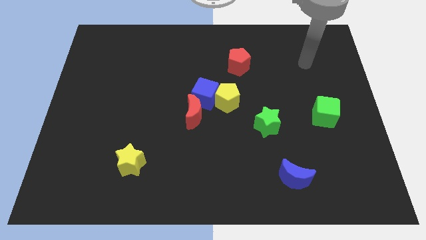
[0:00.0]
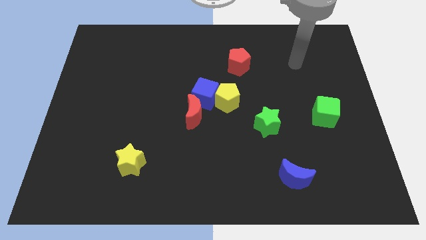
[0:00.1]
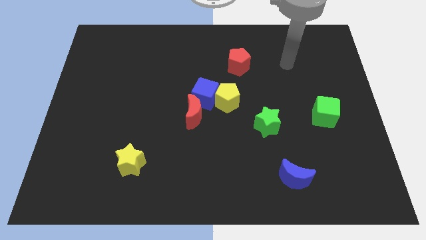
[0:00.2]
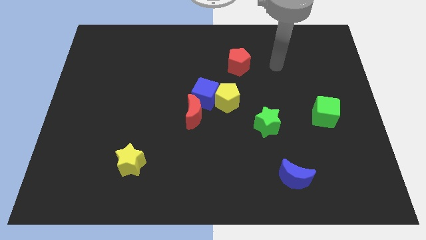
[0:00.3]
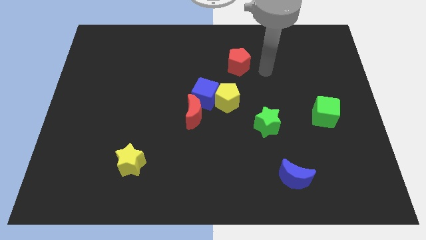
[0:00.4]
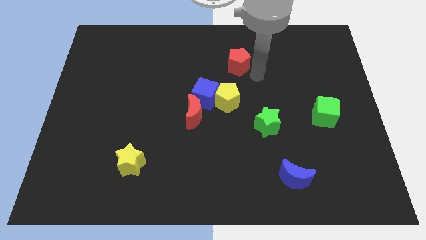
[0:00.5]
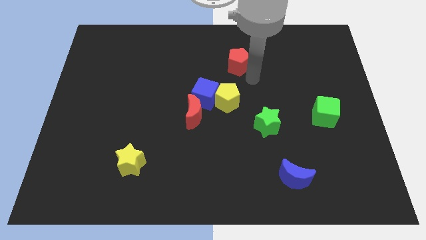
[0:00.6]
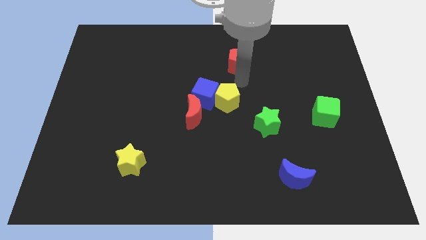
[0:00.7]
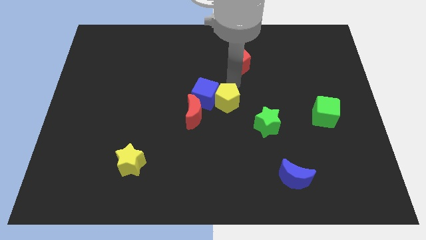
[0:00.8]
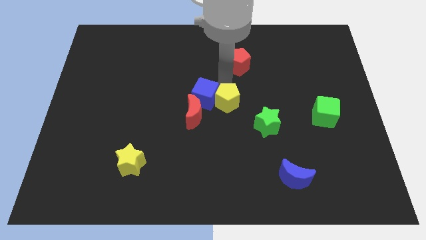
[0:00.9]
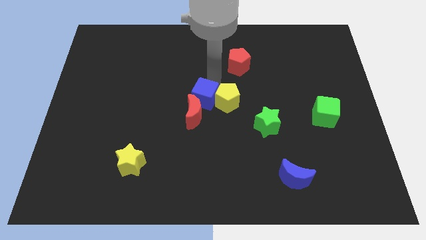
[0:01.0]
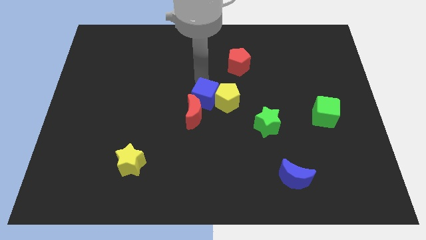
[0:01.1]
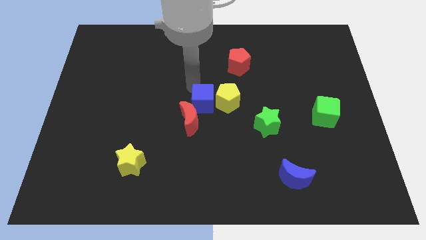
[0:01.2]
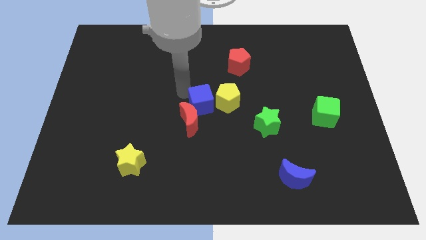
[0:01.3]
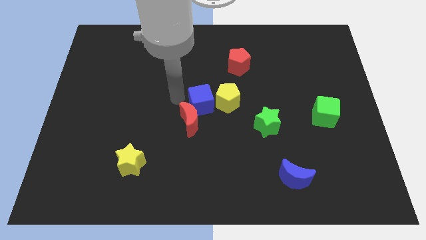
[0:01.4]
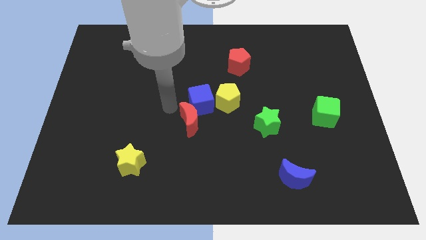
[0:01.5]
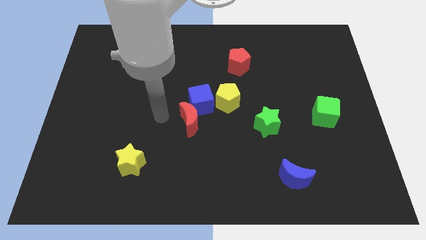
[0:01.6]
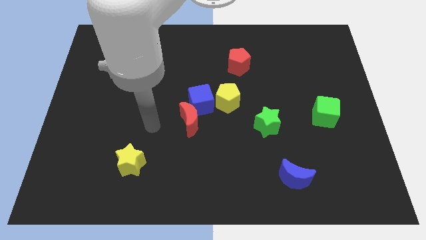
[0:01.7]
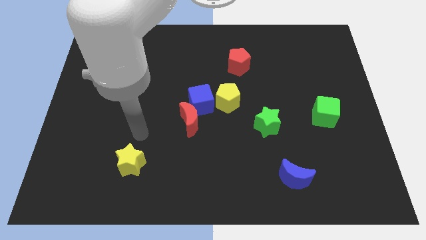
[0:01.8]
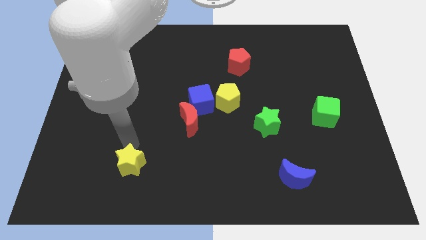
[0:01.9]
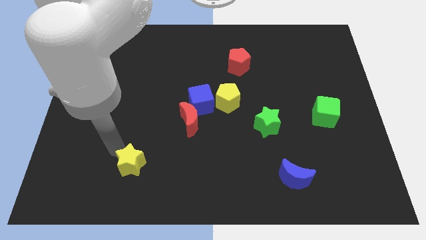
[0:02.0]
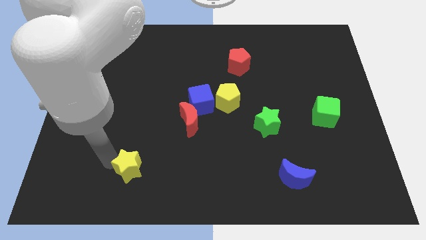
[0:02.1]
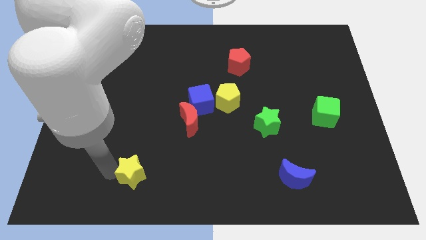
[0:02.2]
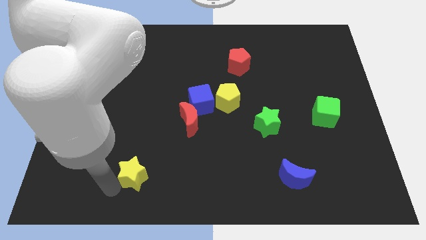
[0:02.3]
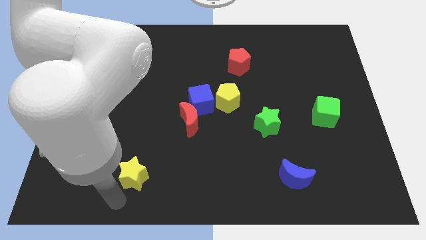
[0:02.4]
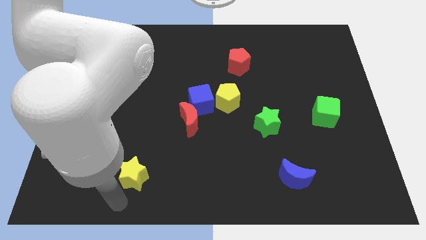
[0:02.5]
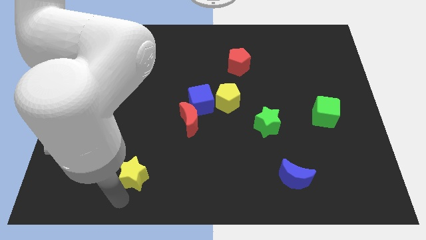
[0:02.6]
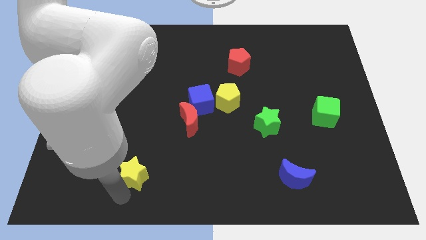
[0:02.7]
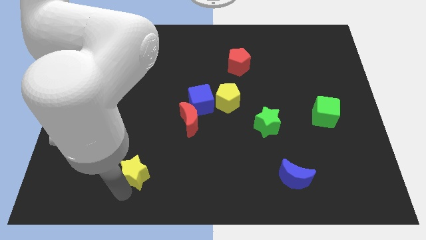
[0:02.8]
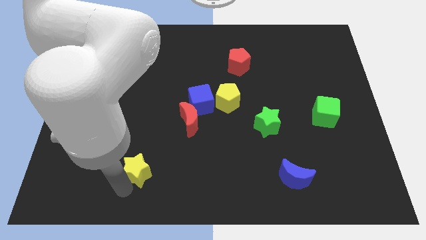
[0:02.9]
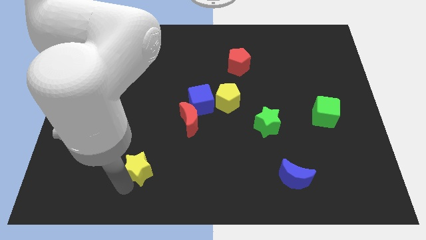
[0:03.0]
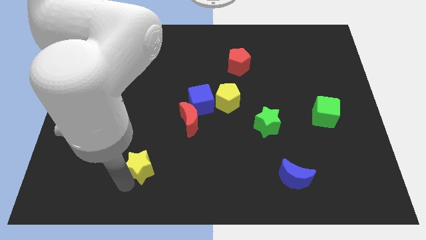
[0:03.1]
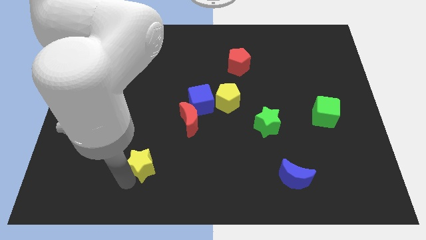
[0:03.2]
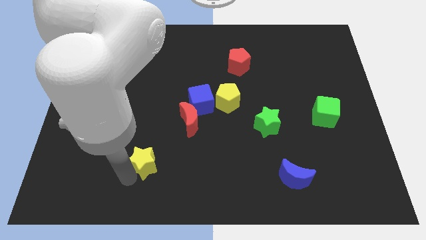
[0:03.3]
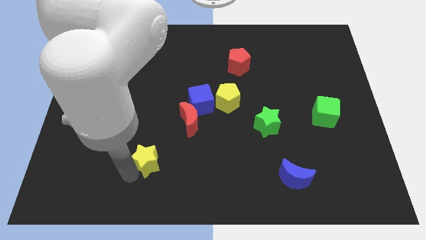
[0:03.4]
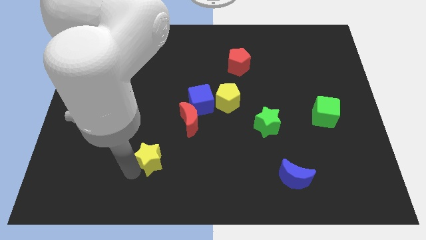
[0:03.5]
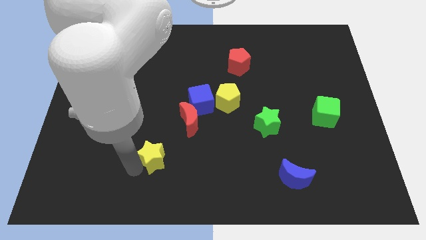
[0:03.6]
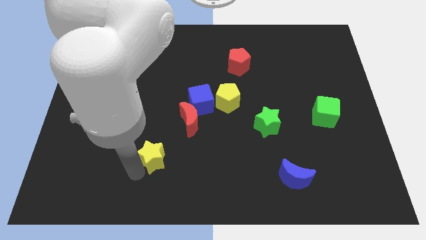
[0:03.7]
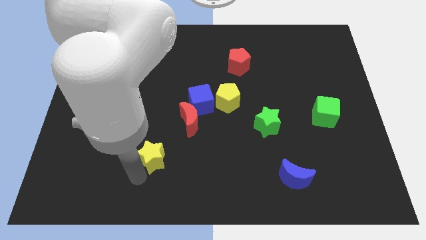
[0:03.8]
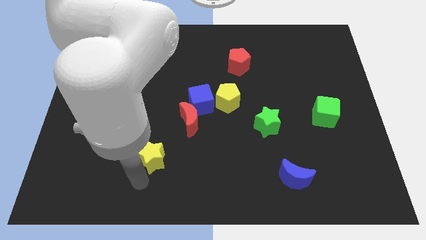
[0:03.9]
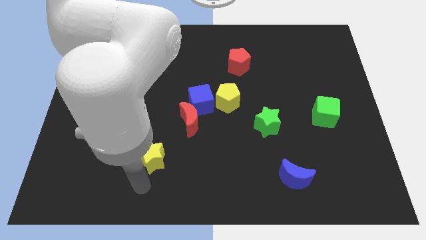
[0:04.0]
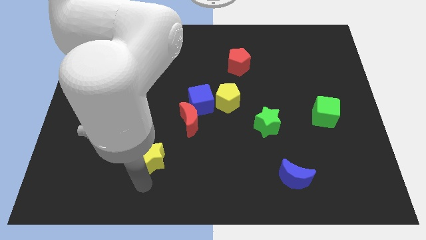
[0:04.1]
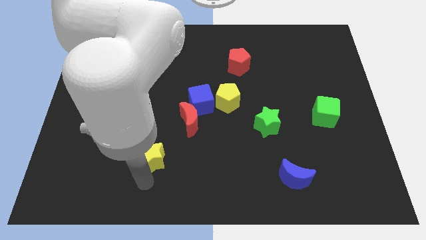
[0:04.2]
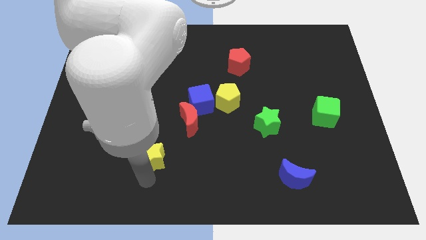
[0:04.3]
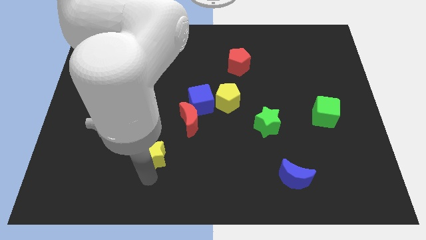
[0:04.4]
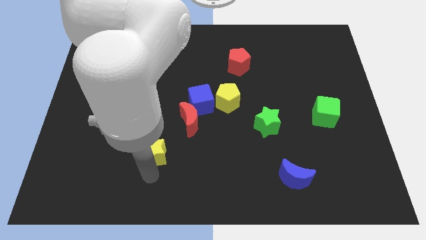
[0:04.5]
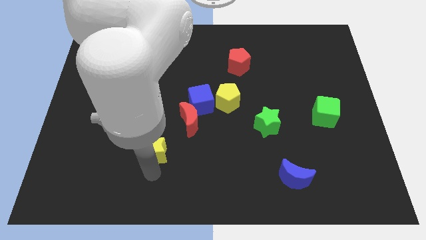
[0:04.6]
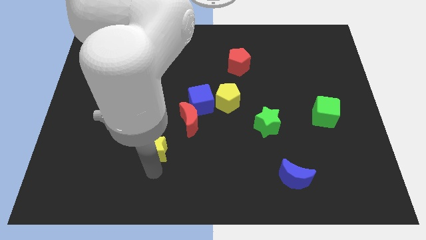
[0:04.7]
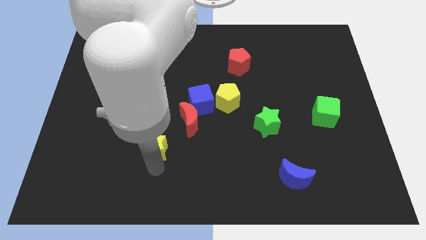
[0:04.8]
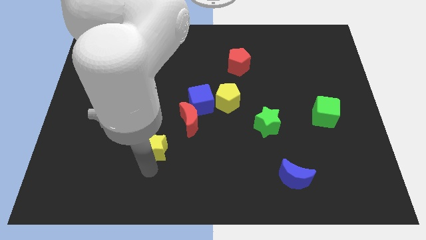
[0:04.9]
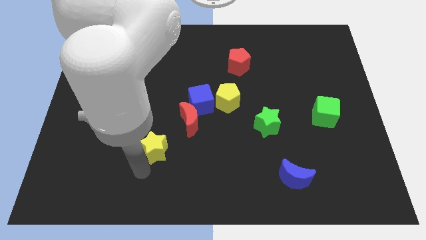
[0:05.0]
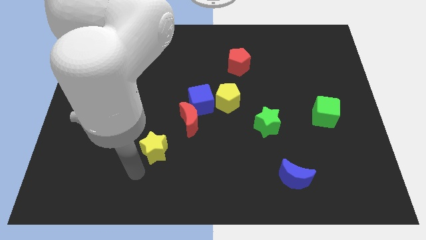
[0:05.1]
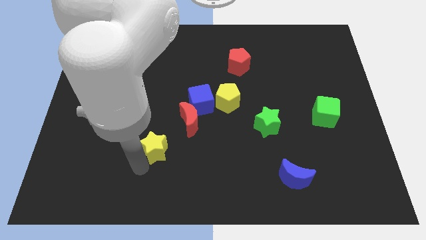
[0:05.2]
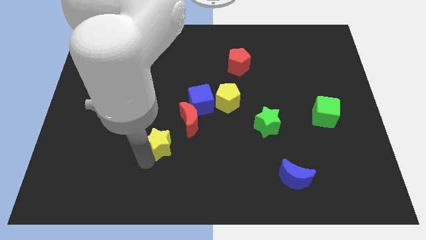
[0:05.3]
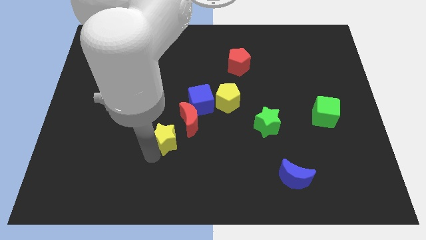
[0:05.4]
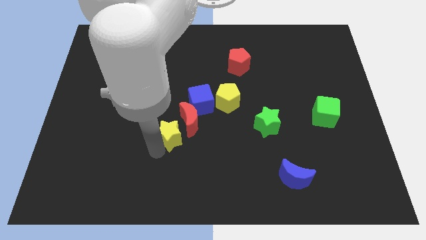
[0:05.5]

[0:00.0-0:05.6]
slide the yellow star to the red moon

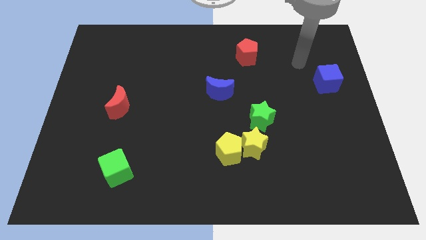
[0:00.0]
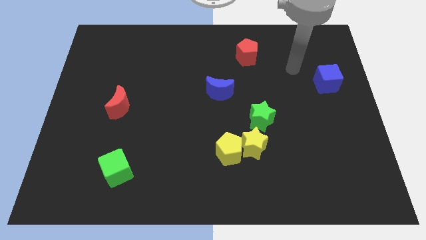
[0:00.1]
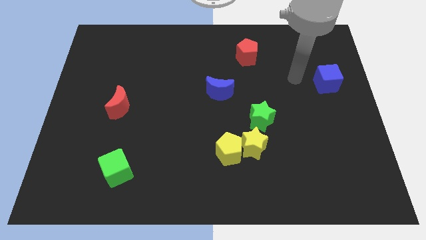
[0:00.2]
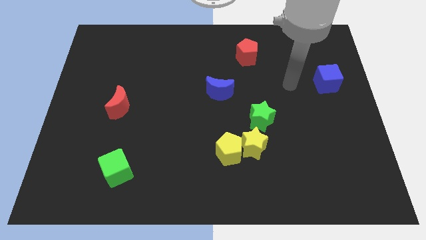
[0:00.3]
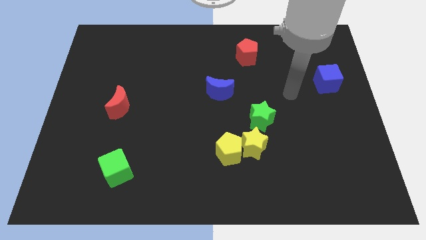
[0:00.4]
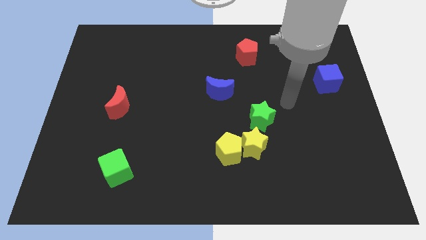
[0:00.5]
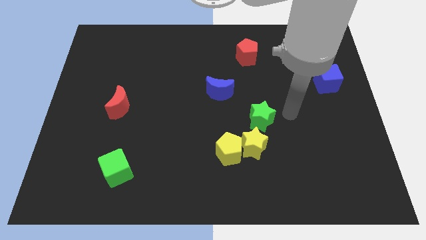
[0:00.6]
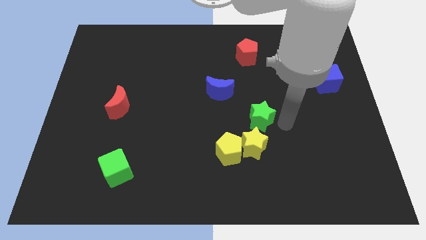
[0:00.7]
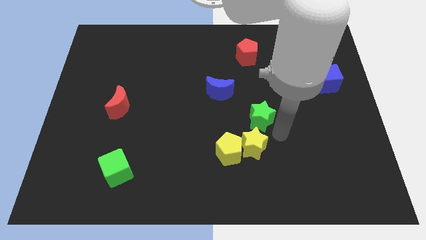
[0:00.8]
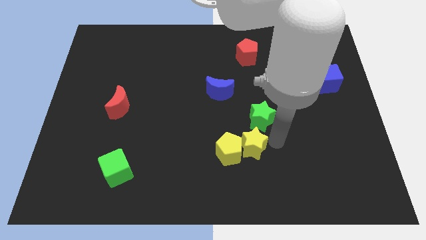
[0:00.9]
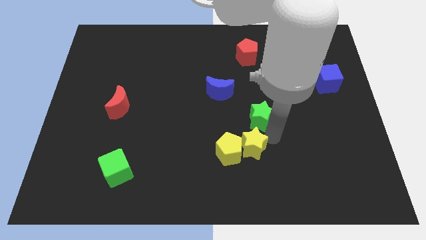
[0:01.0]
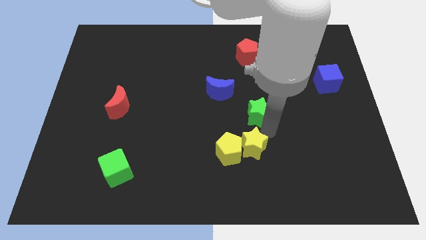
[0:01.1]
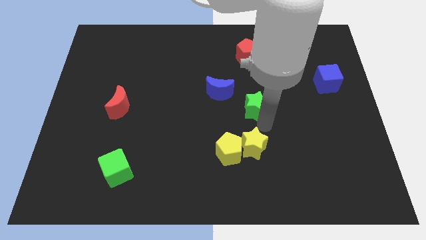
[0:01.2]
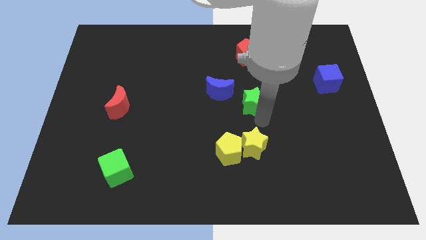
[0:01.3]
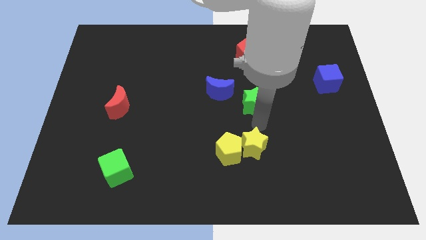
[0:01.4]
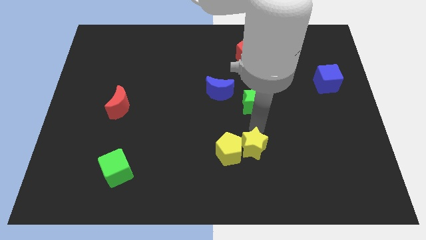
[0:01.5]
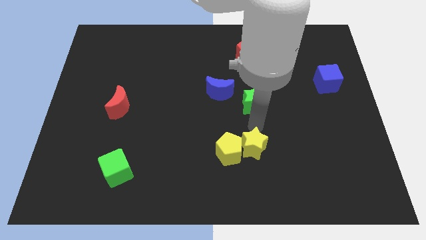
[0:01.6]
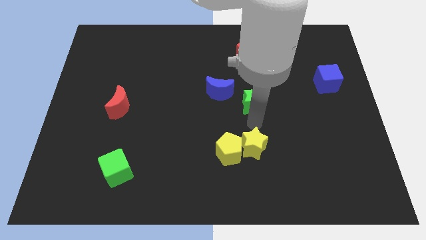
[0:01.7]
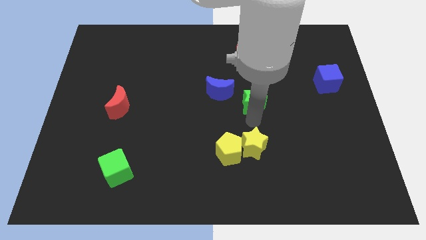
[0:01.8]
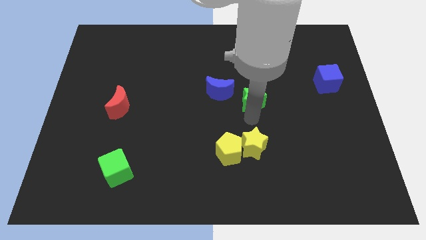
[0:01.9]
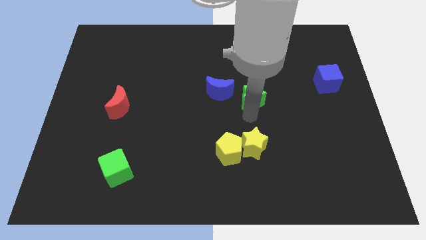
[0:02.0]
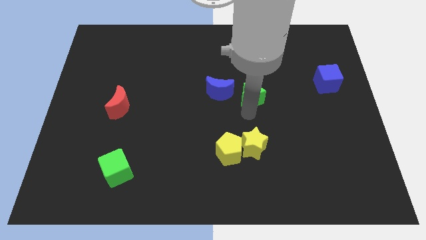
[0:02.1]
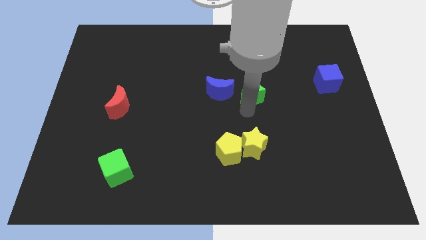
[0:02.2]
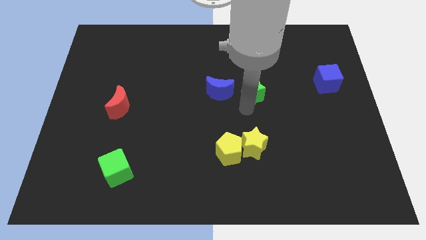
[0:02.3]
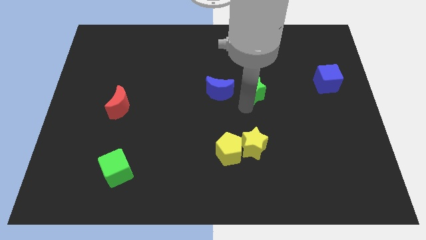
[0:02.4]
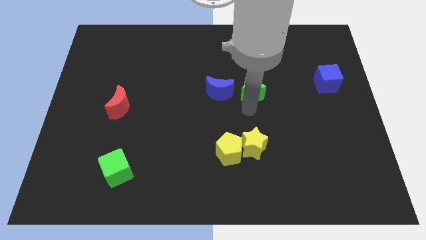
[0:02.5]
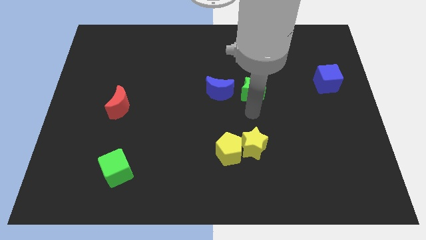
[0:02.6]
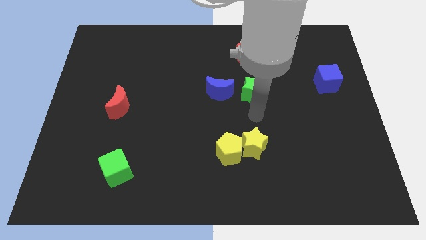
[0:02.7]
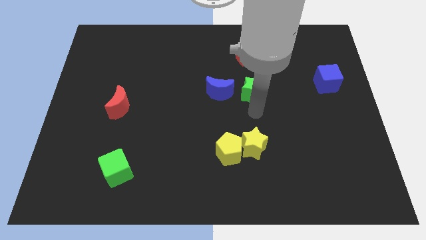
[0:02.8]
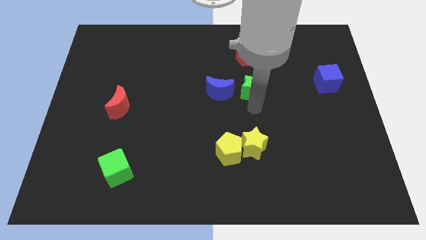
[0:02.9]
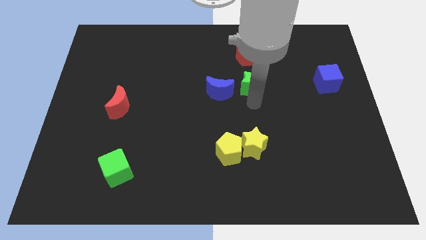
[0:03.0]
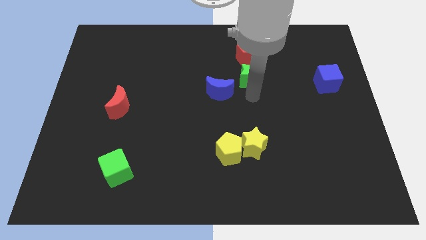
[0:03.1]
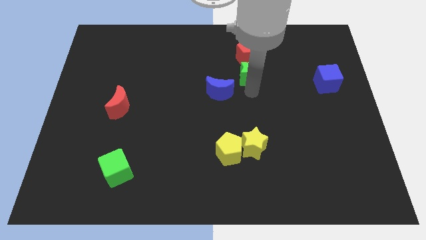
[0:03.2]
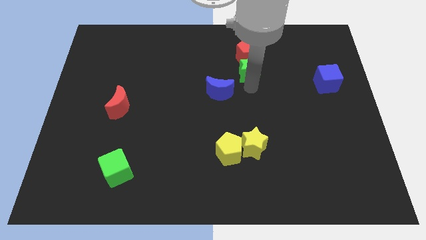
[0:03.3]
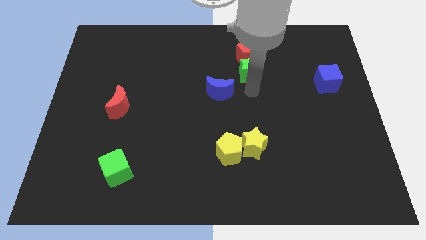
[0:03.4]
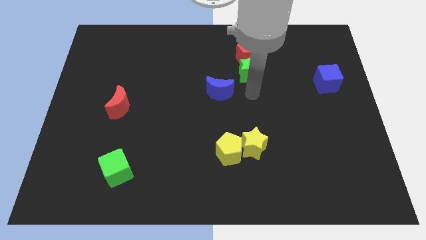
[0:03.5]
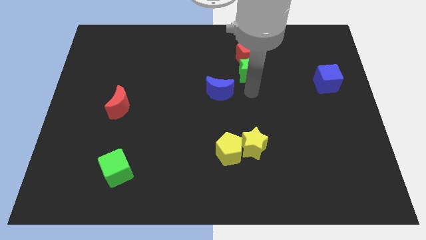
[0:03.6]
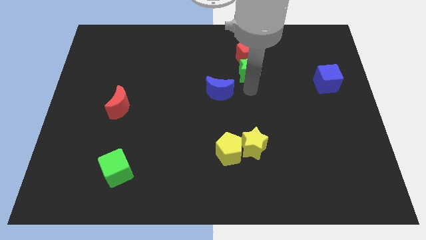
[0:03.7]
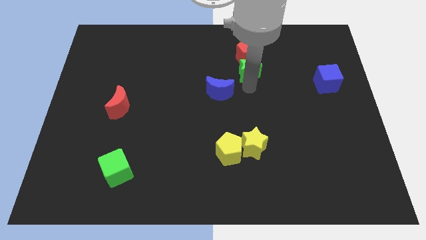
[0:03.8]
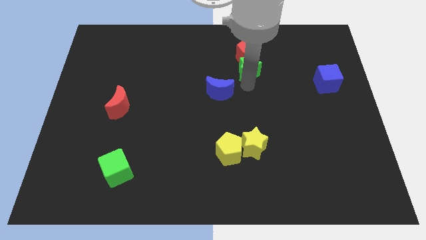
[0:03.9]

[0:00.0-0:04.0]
slide the green star towards the red pentagon
